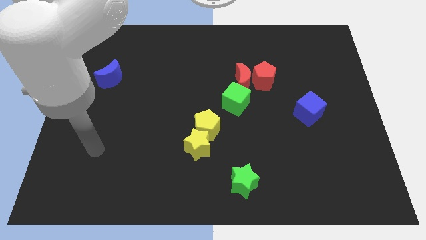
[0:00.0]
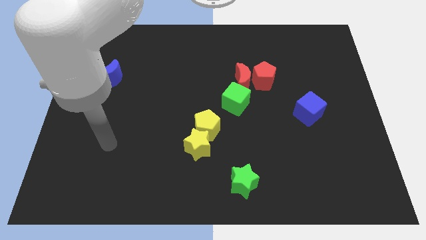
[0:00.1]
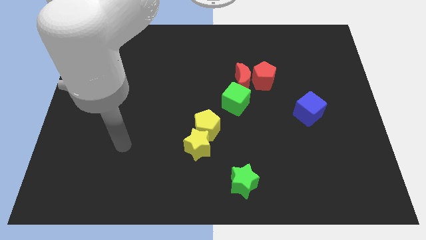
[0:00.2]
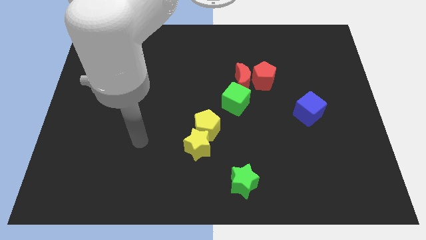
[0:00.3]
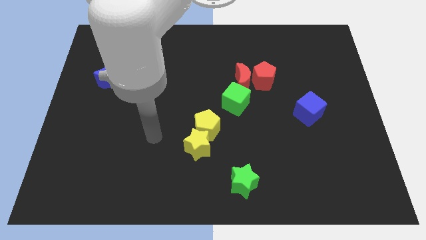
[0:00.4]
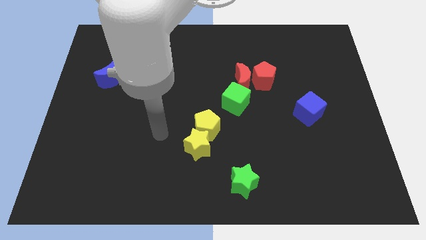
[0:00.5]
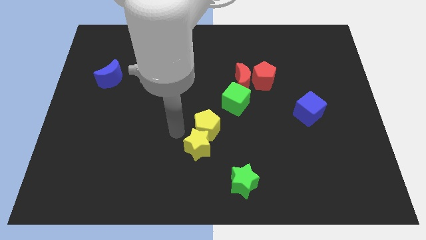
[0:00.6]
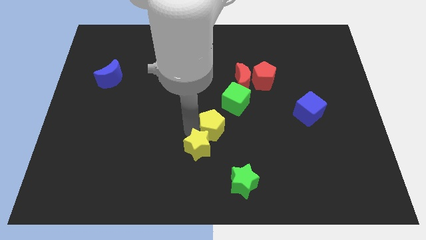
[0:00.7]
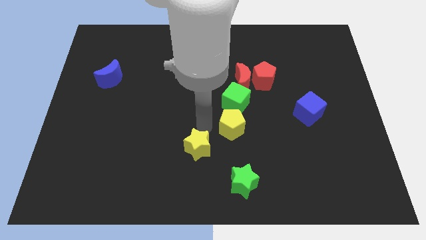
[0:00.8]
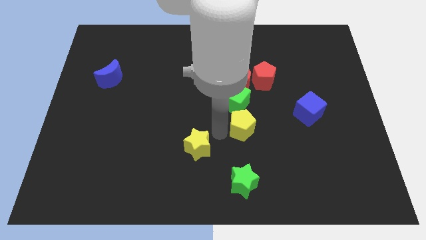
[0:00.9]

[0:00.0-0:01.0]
move the yellow star away from the yellow pentagon

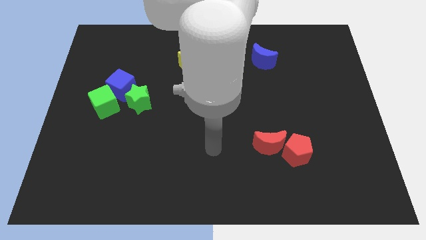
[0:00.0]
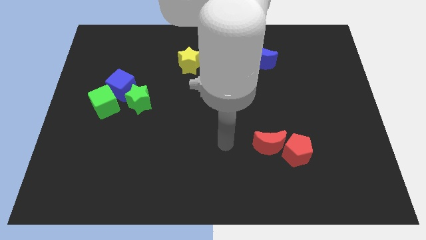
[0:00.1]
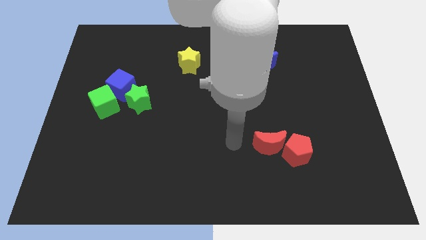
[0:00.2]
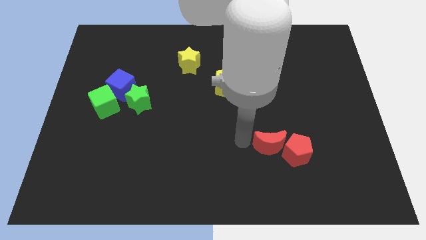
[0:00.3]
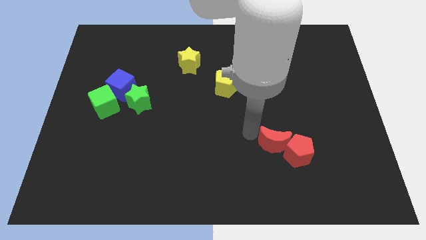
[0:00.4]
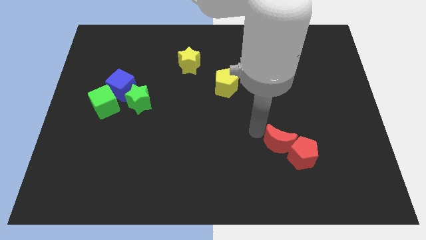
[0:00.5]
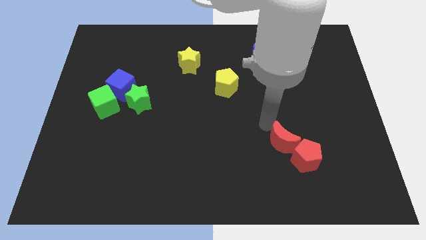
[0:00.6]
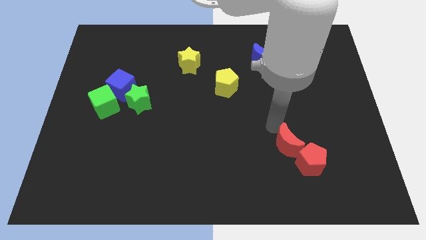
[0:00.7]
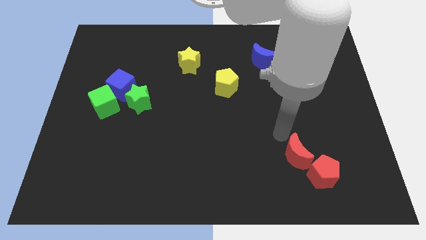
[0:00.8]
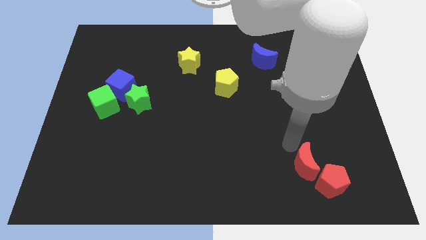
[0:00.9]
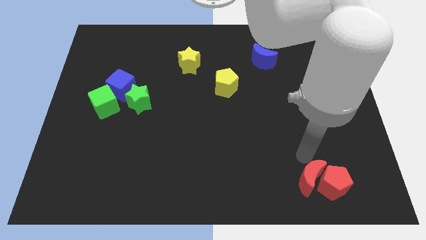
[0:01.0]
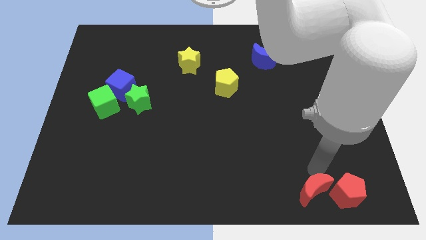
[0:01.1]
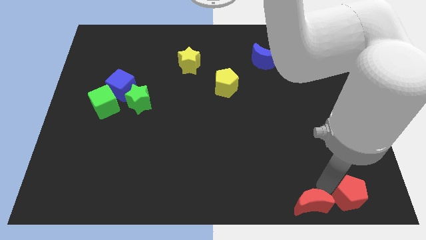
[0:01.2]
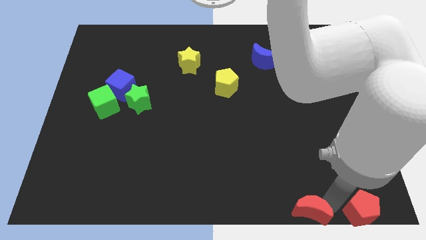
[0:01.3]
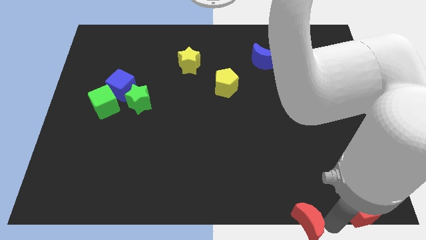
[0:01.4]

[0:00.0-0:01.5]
move the red moon away from the red pentagon

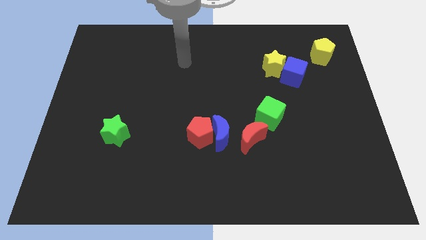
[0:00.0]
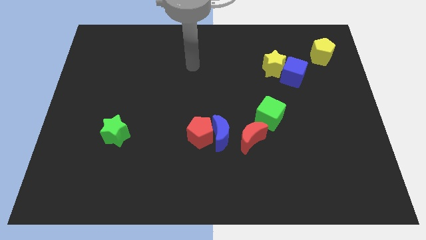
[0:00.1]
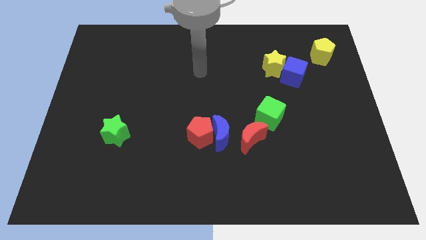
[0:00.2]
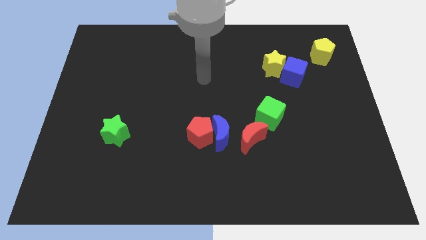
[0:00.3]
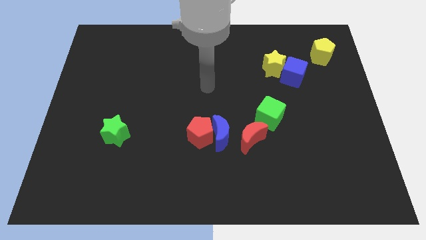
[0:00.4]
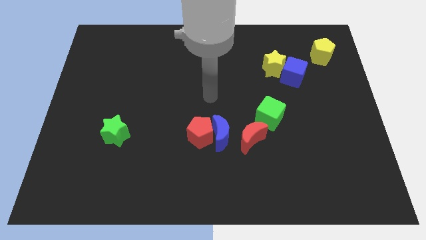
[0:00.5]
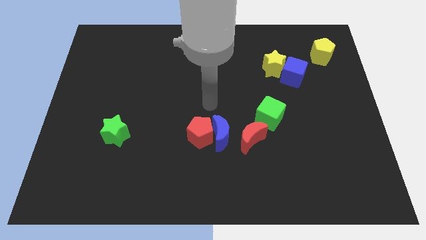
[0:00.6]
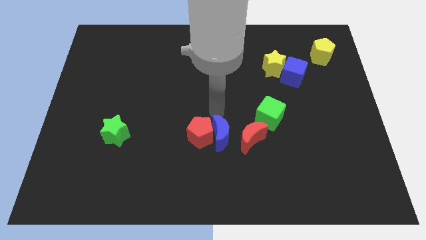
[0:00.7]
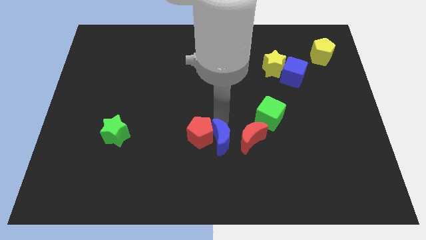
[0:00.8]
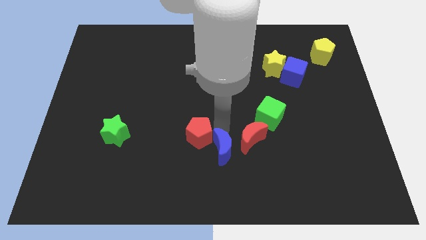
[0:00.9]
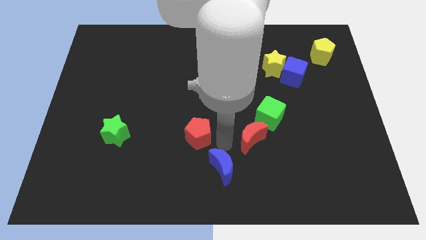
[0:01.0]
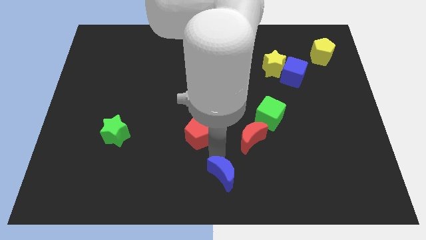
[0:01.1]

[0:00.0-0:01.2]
move the red pentagon away from the blue moon

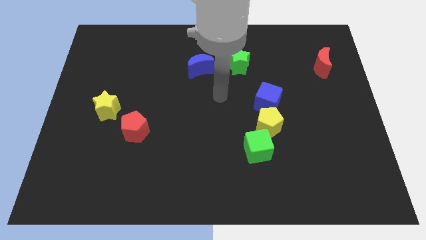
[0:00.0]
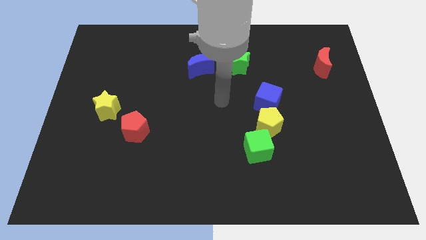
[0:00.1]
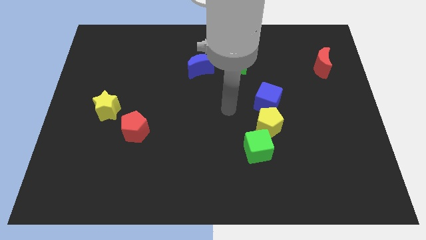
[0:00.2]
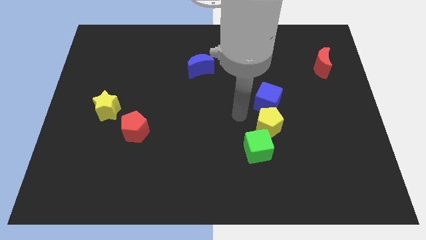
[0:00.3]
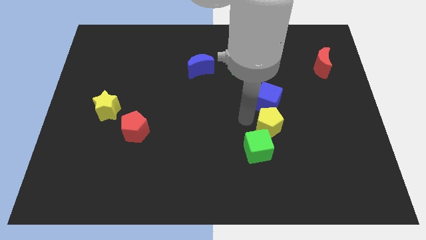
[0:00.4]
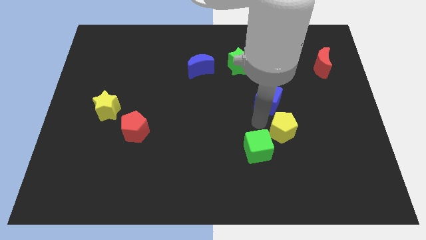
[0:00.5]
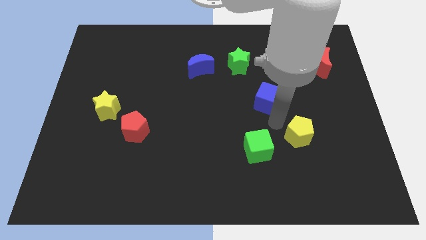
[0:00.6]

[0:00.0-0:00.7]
pull the blue cube apart from the yellow pentagon

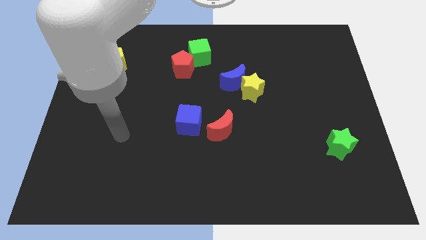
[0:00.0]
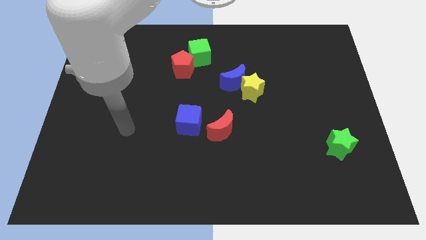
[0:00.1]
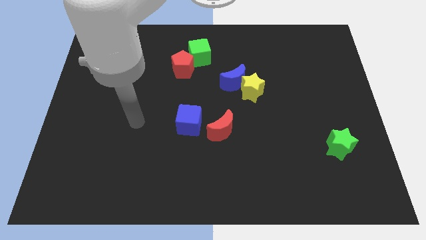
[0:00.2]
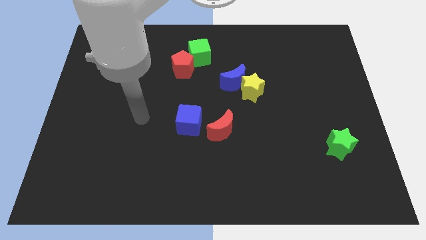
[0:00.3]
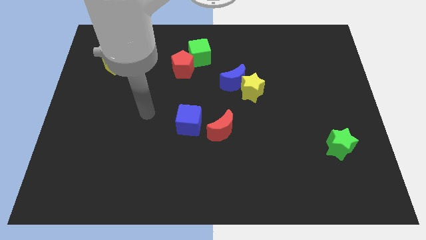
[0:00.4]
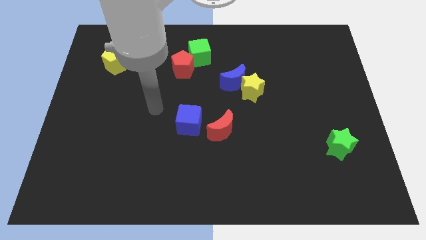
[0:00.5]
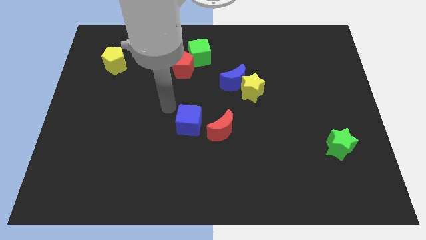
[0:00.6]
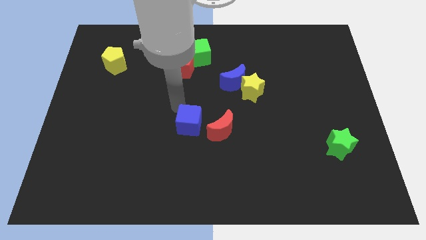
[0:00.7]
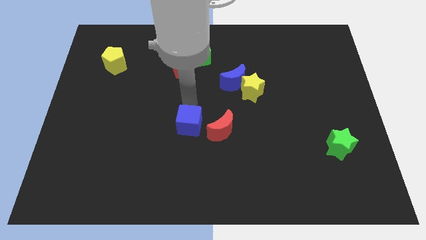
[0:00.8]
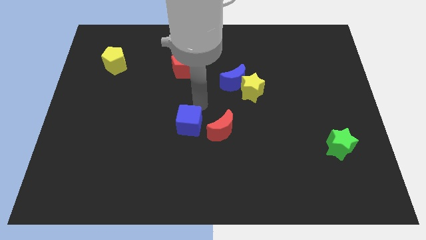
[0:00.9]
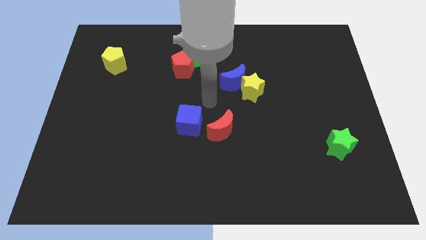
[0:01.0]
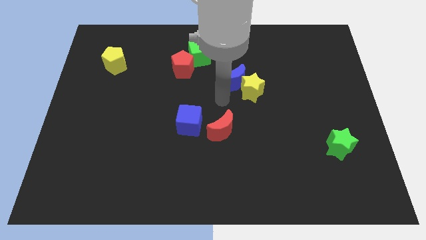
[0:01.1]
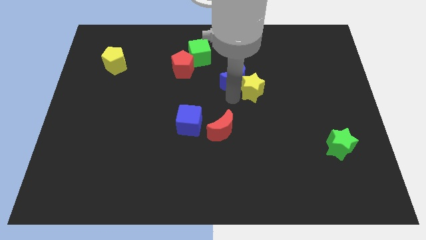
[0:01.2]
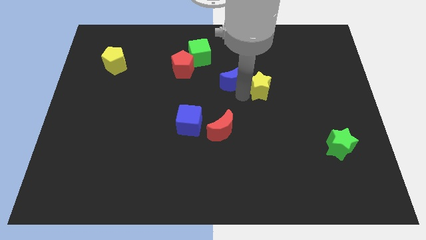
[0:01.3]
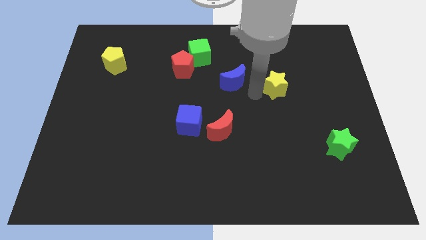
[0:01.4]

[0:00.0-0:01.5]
move the blue moon away from the yellow star

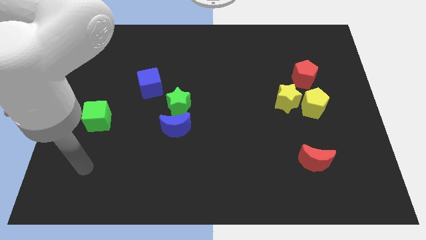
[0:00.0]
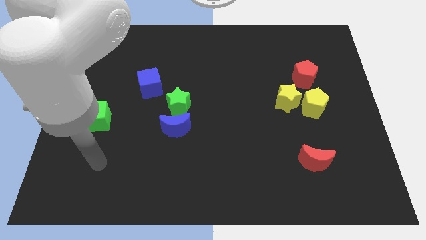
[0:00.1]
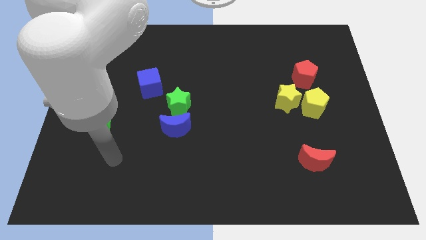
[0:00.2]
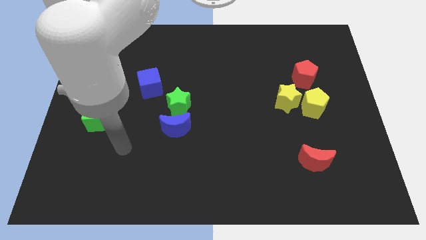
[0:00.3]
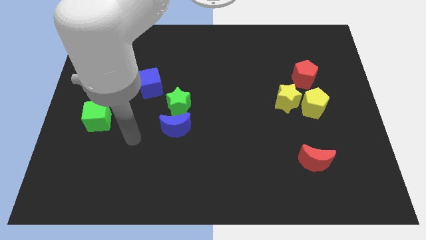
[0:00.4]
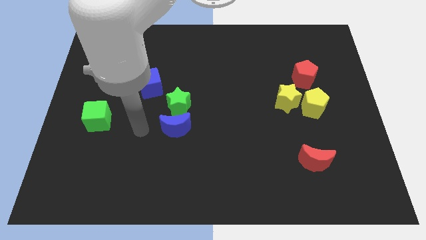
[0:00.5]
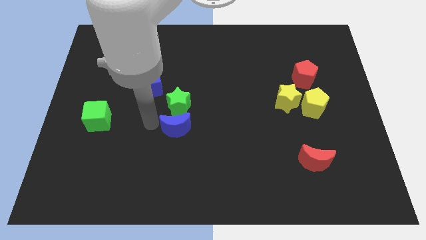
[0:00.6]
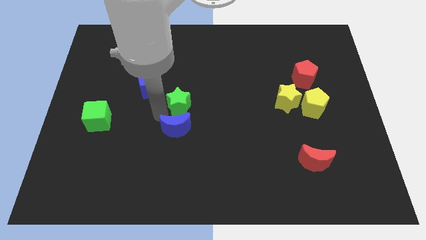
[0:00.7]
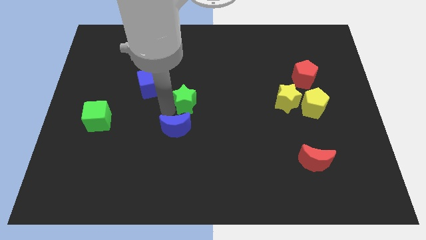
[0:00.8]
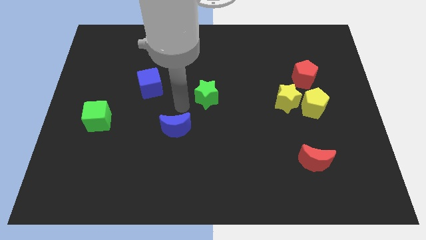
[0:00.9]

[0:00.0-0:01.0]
pull the blue moon apart from the green star

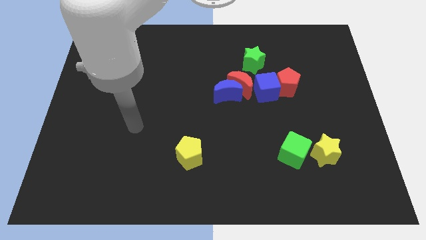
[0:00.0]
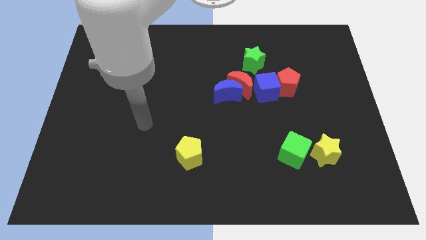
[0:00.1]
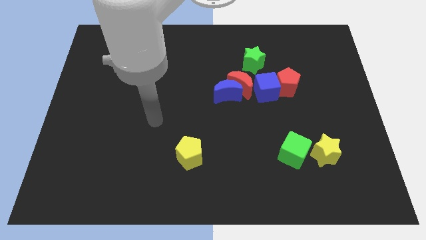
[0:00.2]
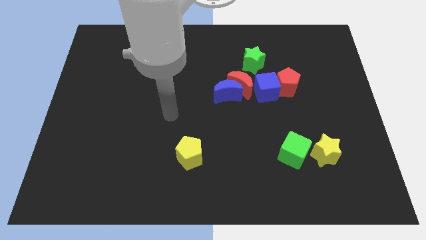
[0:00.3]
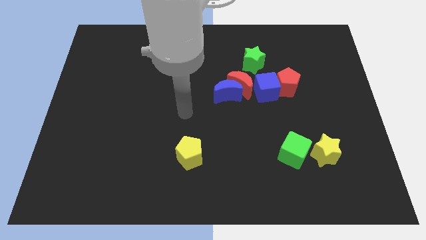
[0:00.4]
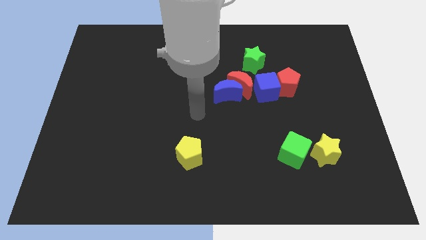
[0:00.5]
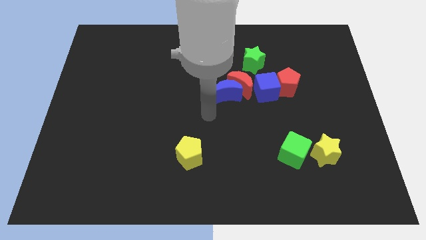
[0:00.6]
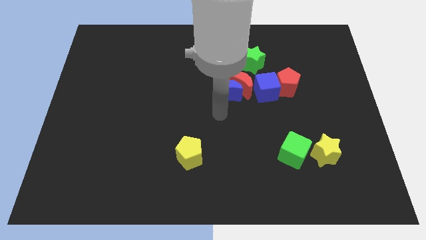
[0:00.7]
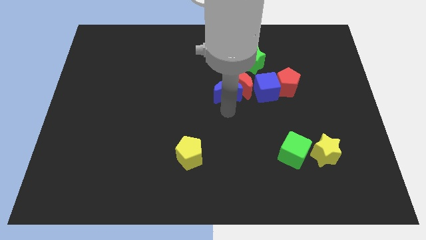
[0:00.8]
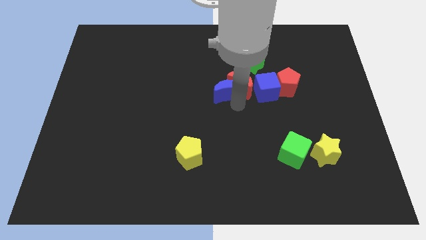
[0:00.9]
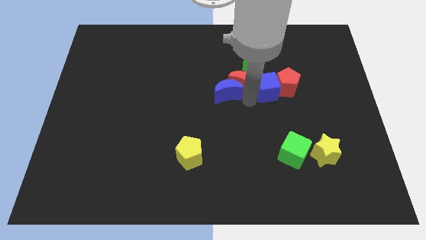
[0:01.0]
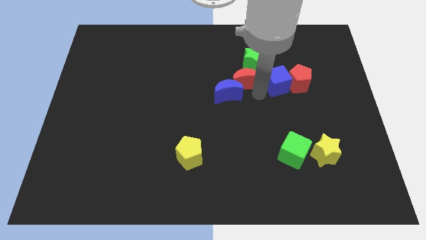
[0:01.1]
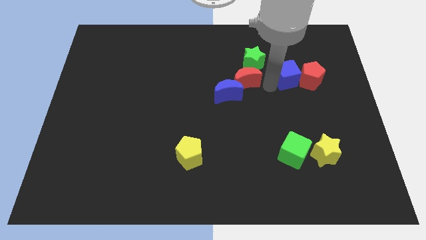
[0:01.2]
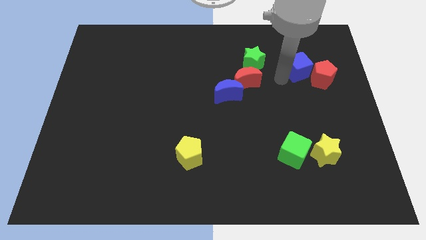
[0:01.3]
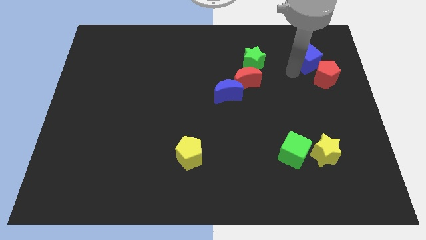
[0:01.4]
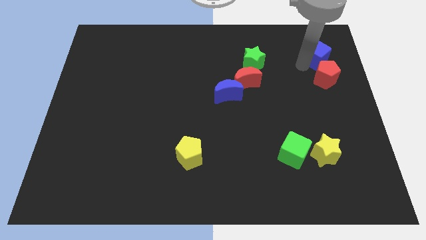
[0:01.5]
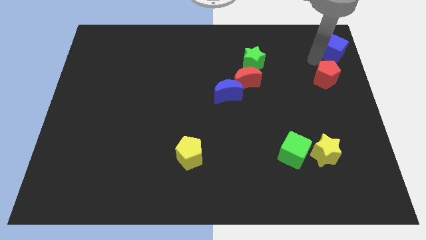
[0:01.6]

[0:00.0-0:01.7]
separate the red pentagon from the blue cube

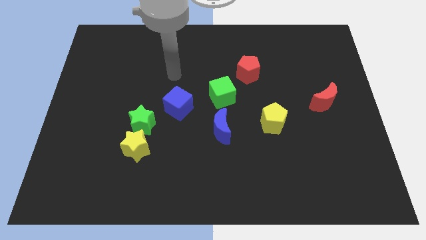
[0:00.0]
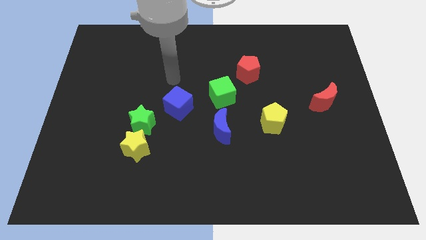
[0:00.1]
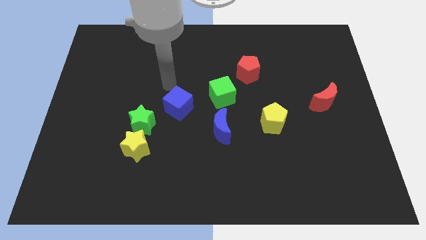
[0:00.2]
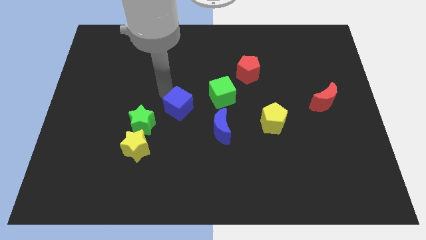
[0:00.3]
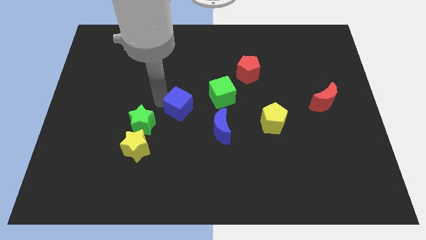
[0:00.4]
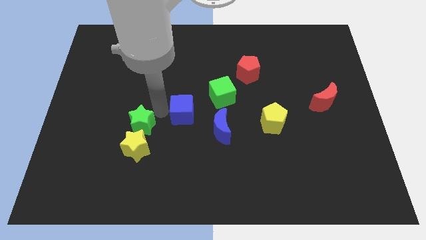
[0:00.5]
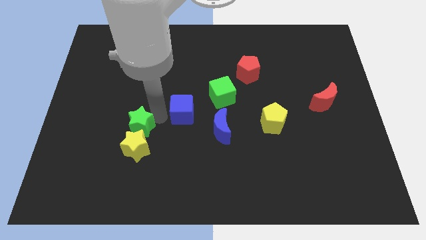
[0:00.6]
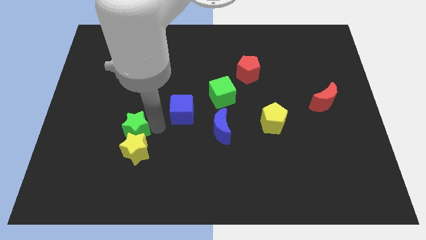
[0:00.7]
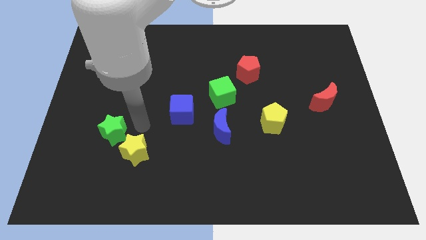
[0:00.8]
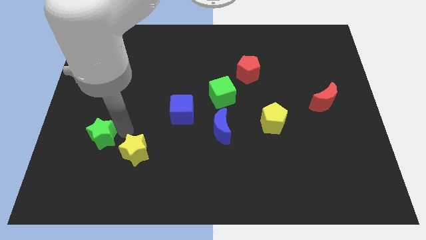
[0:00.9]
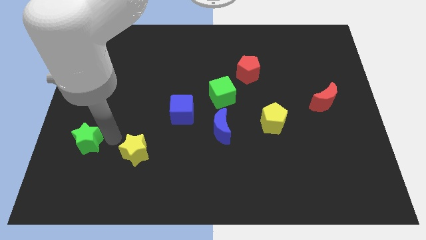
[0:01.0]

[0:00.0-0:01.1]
move the yellow star away from the green star
